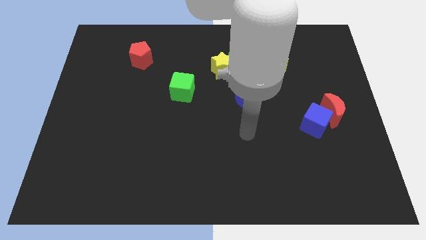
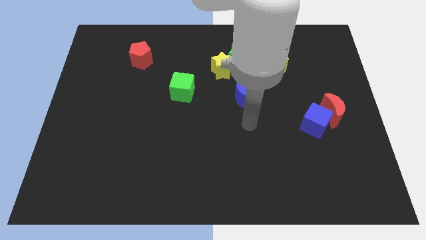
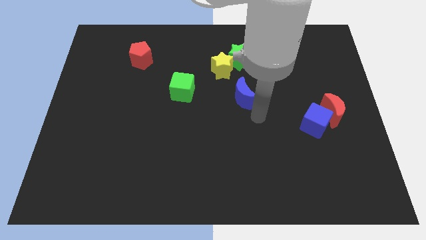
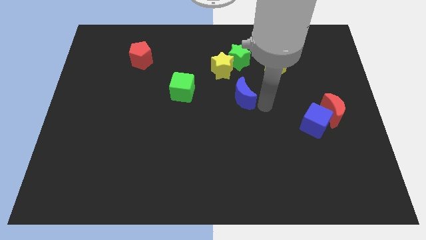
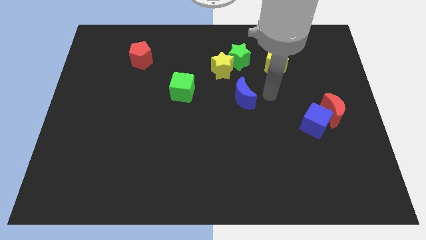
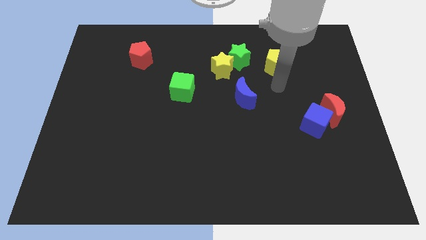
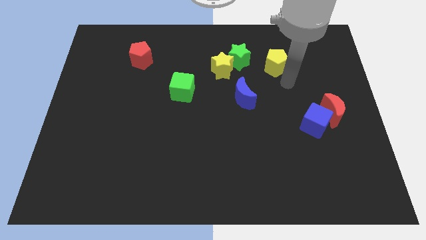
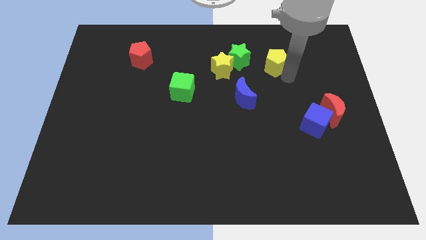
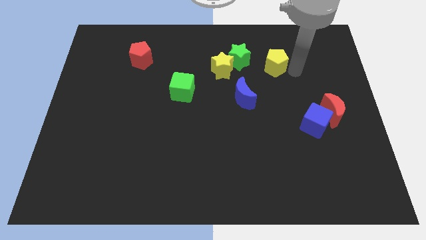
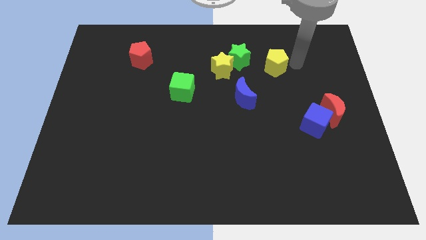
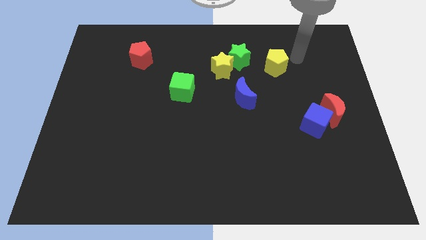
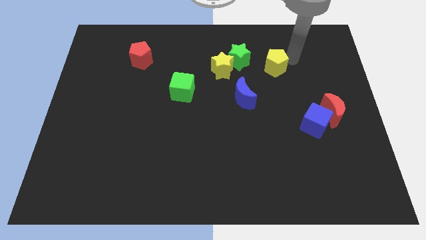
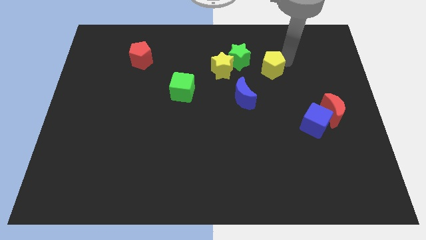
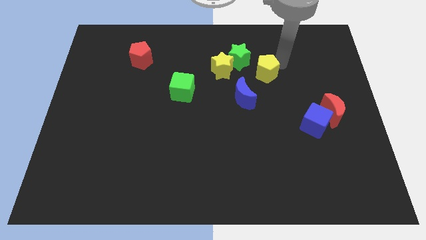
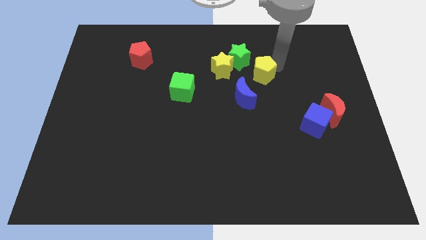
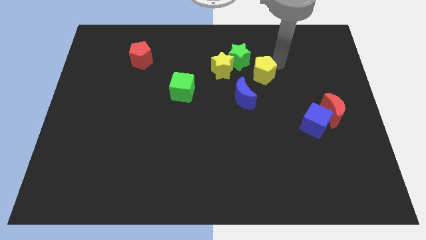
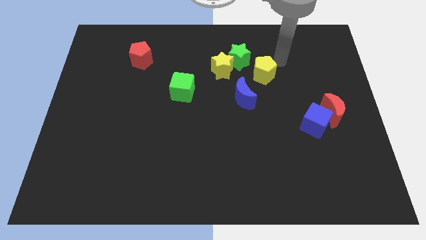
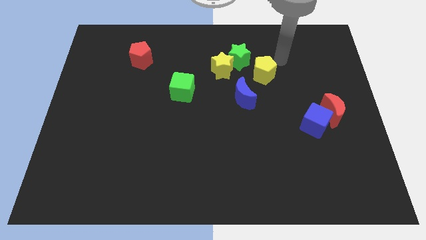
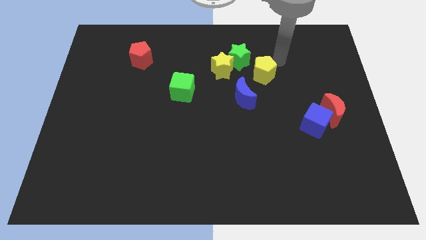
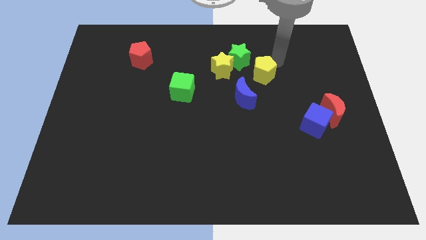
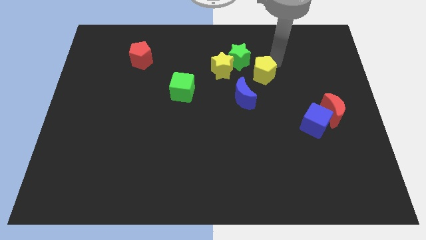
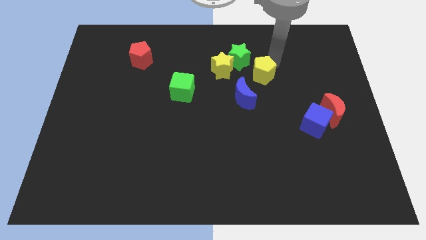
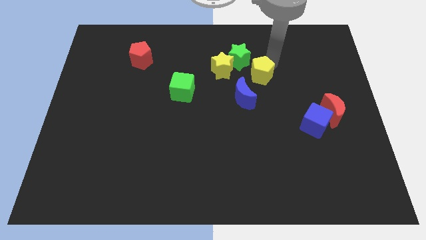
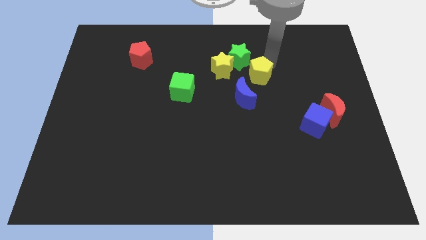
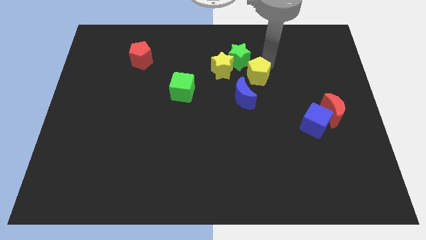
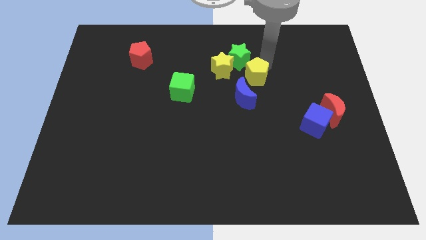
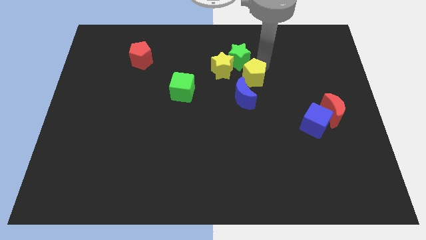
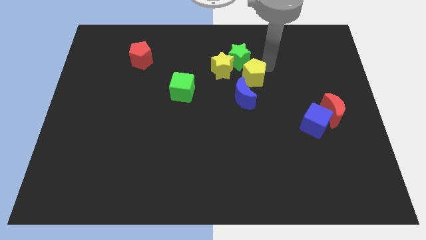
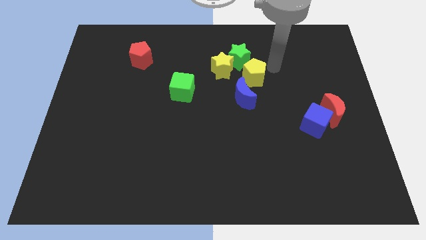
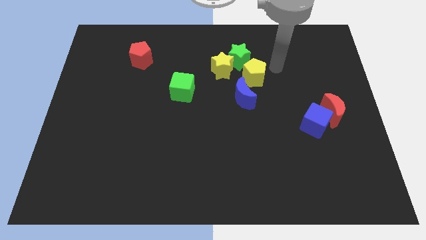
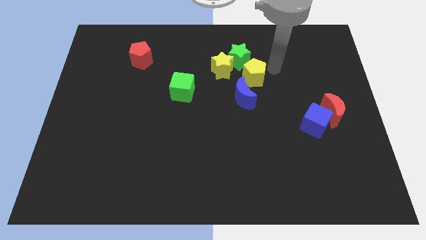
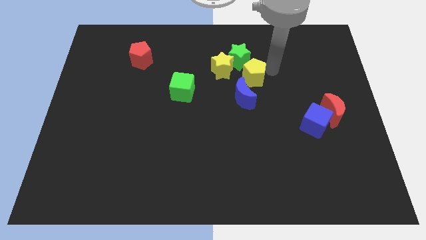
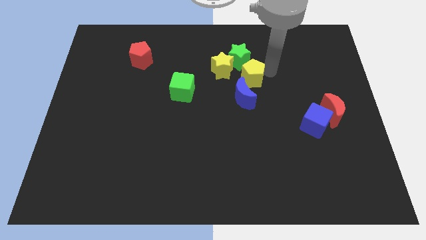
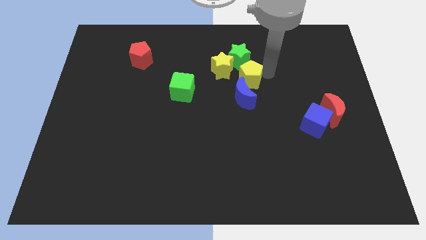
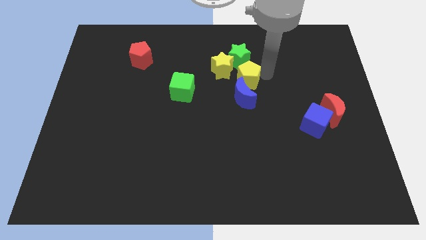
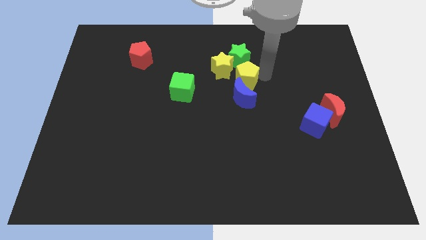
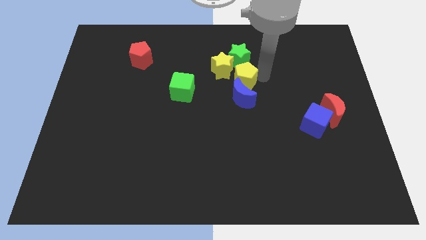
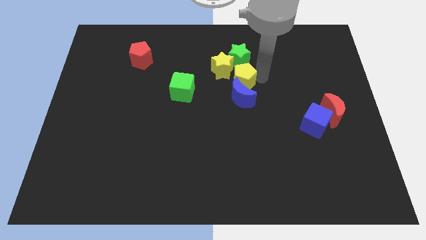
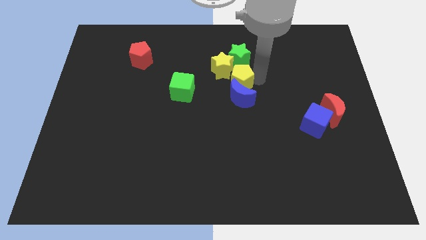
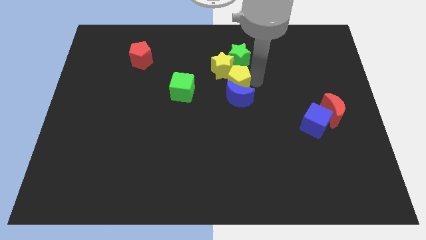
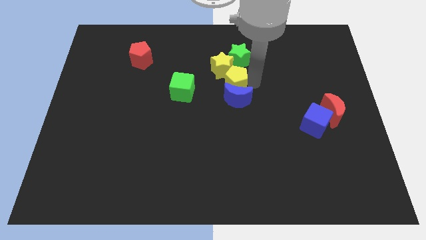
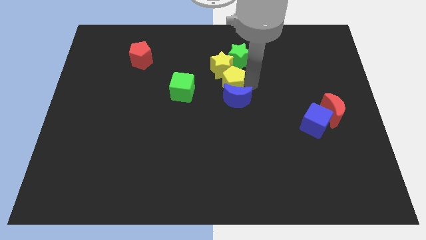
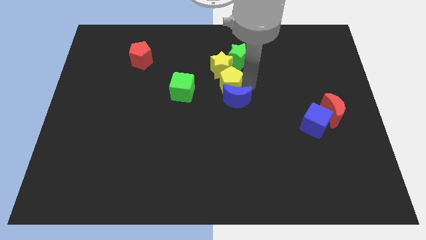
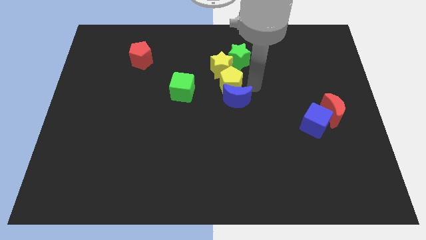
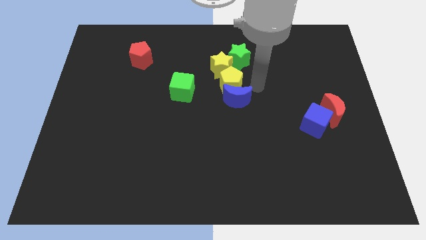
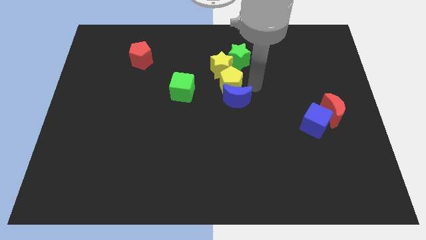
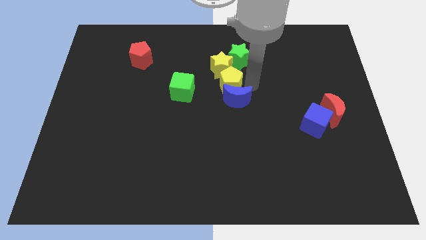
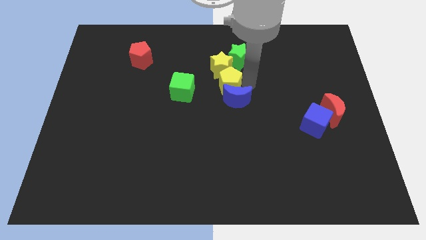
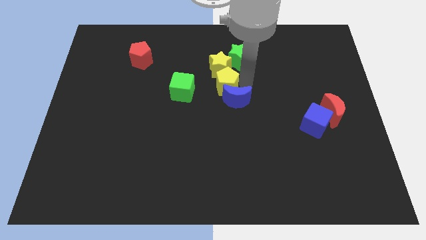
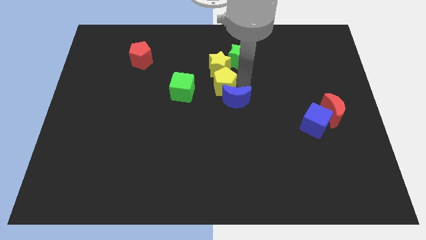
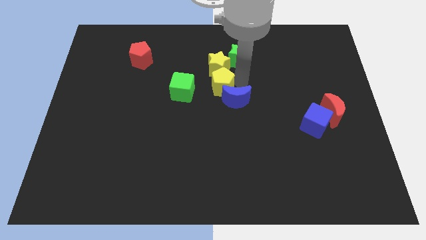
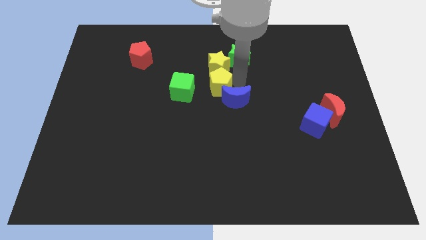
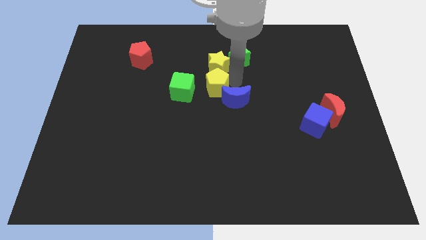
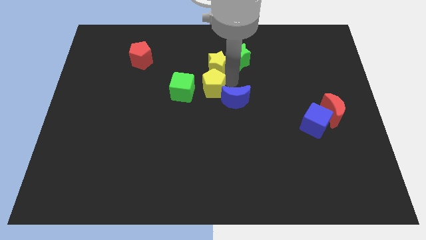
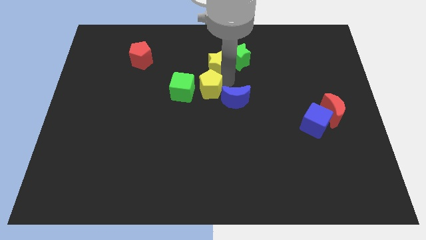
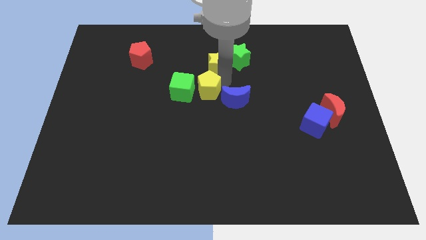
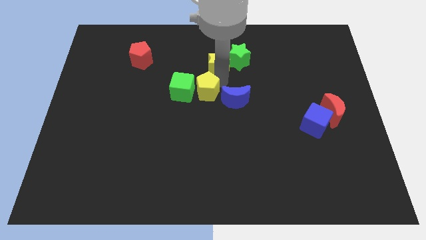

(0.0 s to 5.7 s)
slide the yellow pentagon next to the green cube
